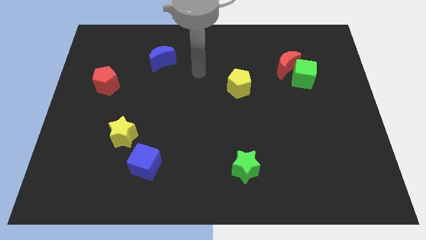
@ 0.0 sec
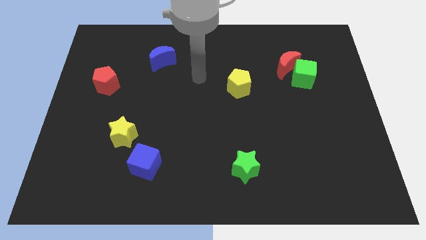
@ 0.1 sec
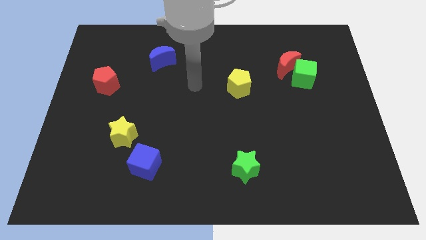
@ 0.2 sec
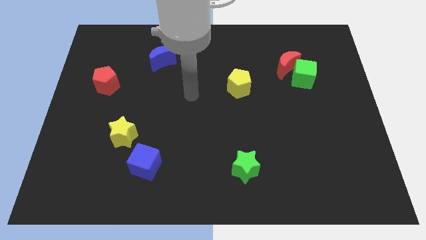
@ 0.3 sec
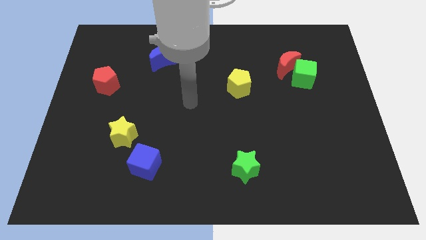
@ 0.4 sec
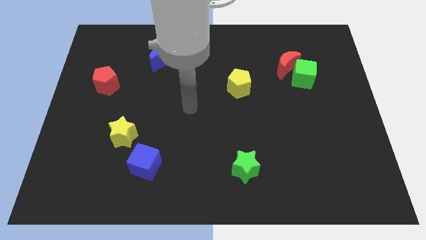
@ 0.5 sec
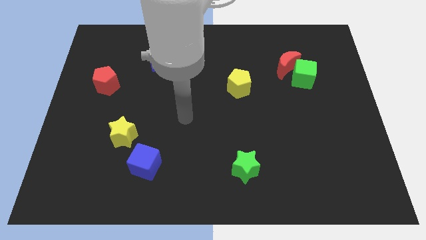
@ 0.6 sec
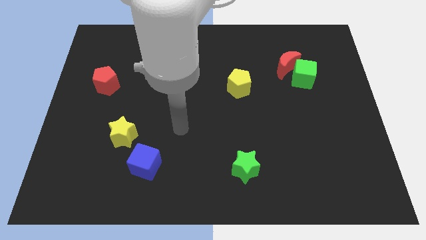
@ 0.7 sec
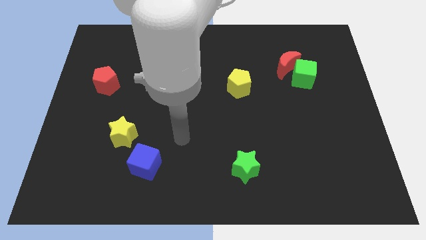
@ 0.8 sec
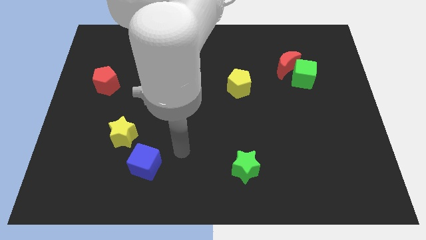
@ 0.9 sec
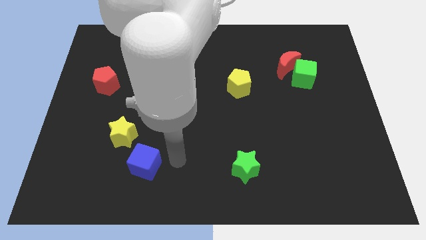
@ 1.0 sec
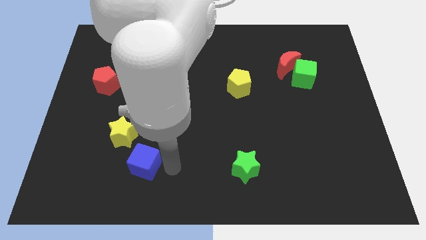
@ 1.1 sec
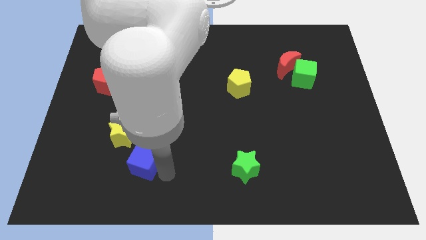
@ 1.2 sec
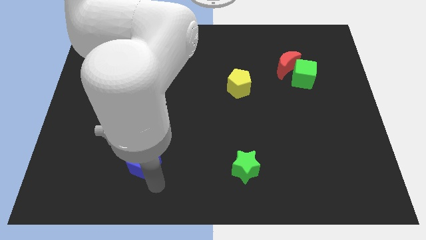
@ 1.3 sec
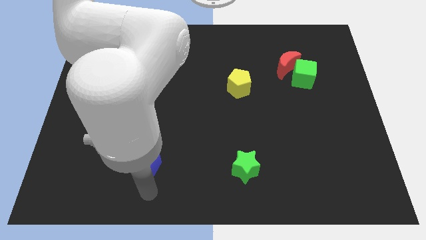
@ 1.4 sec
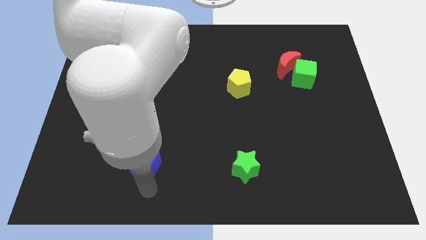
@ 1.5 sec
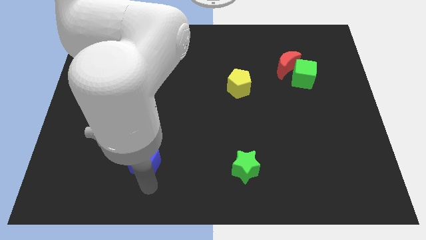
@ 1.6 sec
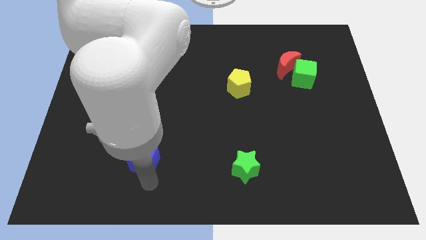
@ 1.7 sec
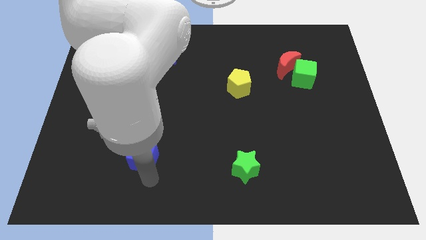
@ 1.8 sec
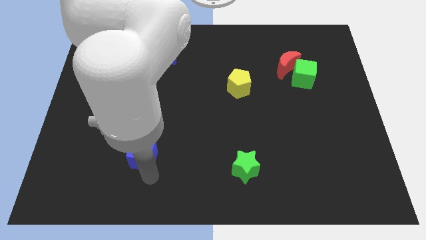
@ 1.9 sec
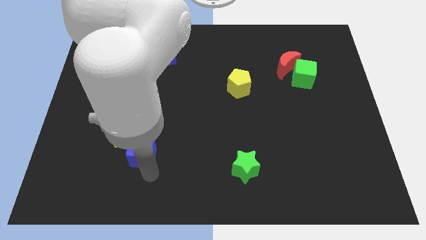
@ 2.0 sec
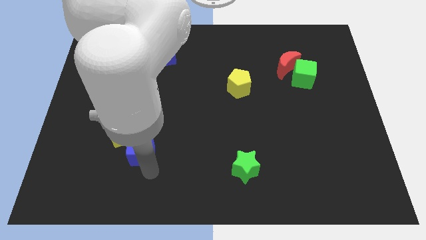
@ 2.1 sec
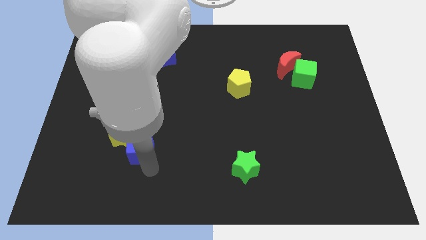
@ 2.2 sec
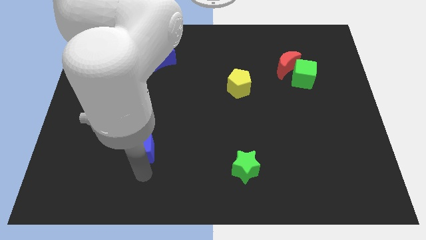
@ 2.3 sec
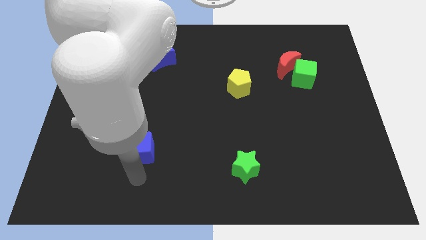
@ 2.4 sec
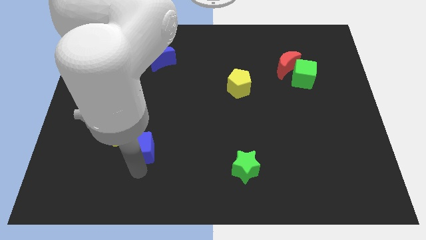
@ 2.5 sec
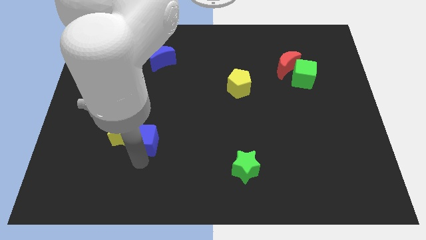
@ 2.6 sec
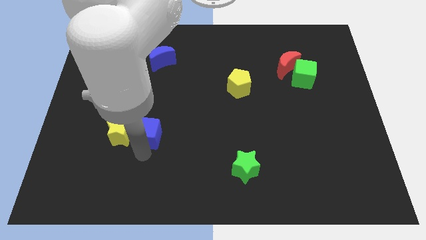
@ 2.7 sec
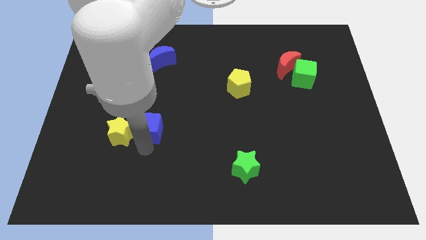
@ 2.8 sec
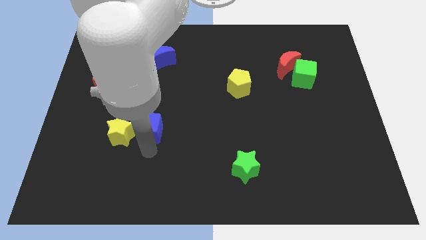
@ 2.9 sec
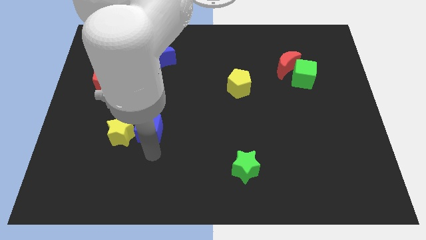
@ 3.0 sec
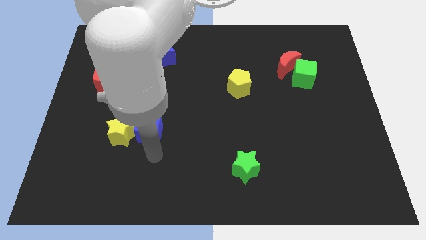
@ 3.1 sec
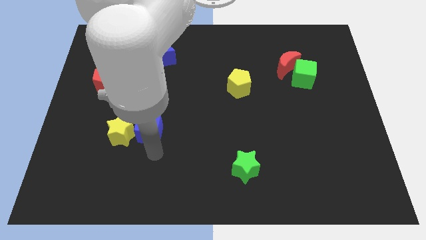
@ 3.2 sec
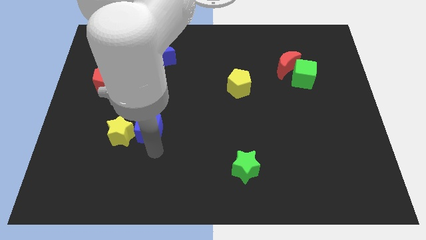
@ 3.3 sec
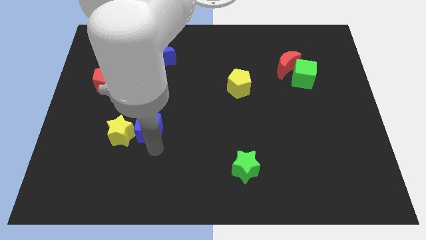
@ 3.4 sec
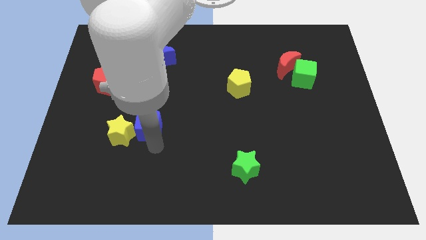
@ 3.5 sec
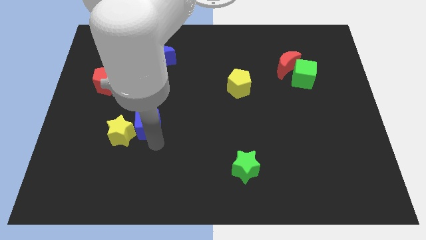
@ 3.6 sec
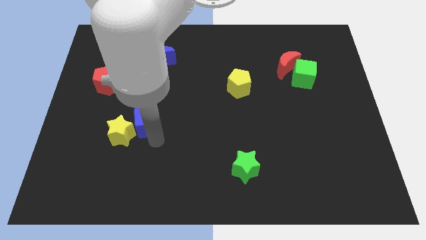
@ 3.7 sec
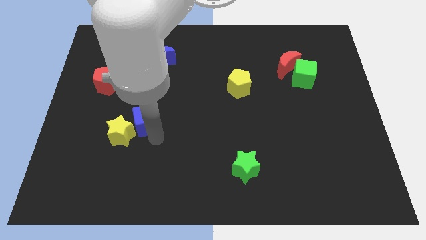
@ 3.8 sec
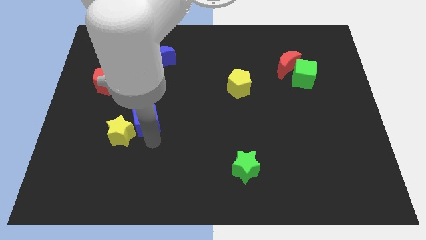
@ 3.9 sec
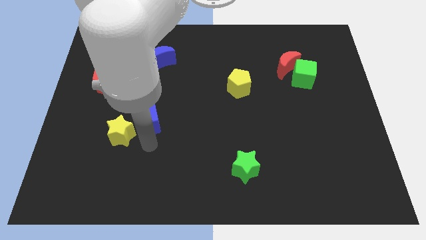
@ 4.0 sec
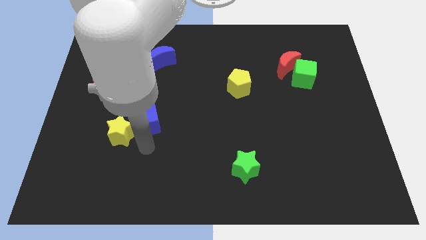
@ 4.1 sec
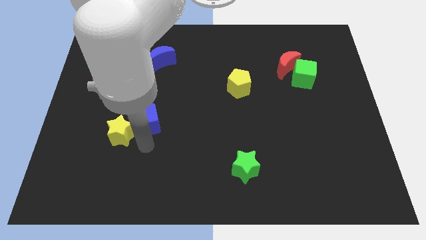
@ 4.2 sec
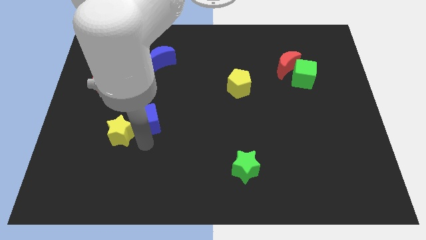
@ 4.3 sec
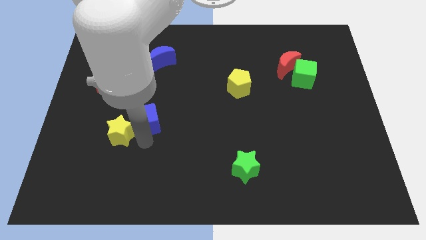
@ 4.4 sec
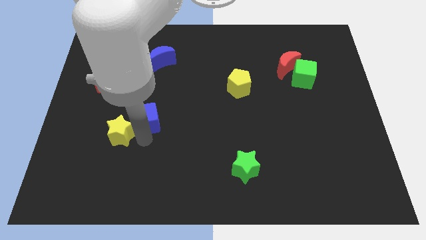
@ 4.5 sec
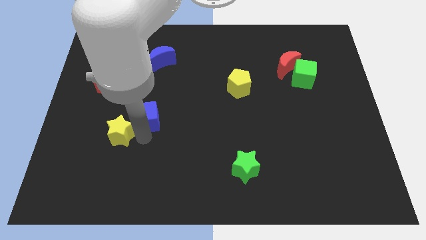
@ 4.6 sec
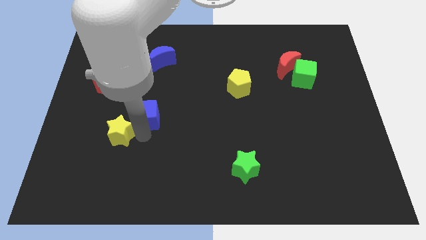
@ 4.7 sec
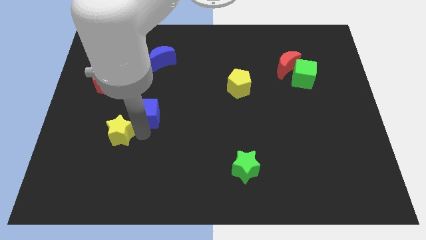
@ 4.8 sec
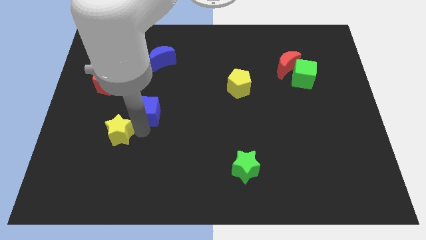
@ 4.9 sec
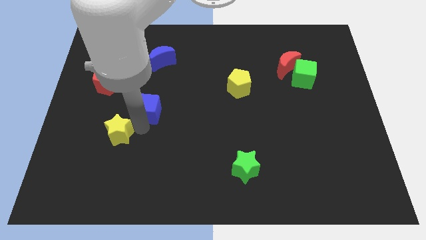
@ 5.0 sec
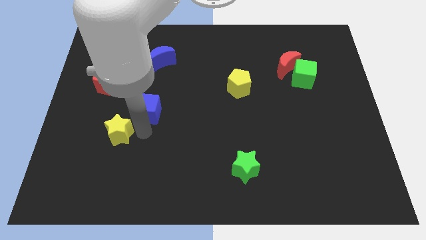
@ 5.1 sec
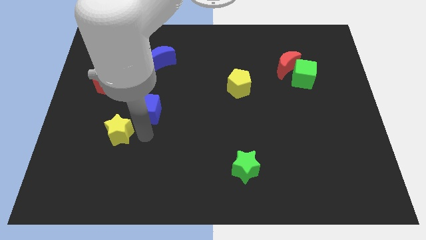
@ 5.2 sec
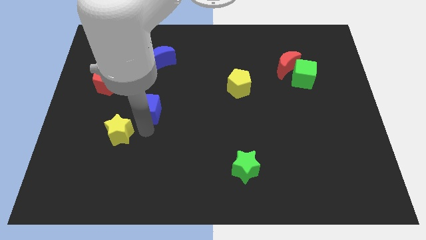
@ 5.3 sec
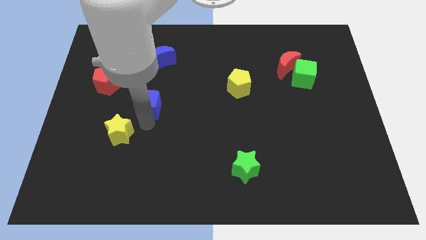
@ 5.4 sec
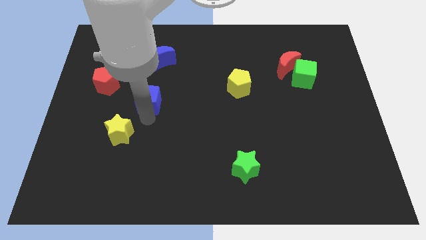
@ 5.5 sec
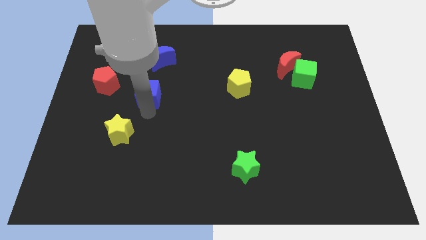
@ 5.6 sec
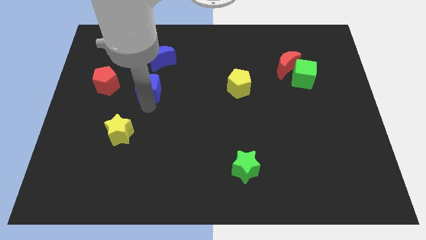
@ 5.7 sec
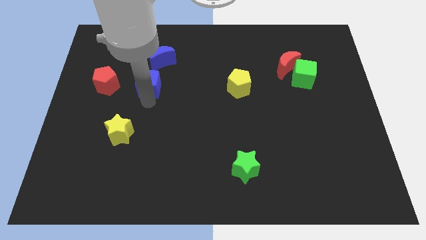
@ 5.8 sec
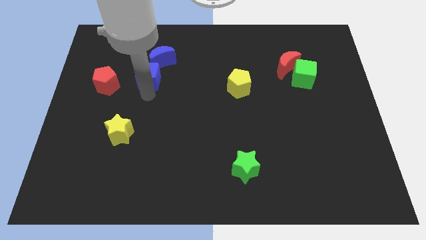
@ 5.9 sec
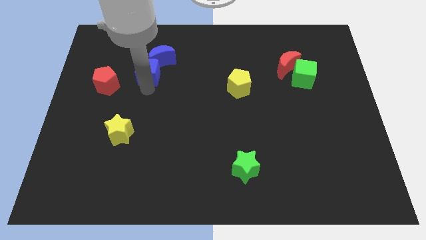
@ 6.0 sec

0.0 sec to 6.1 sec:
move the blue cube to the blue moon

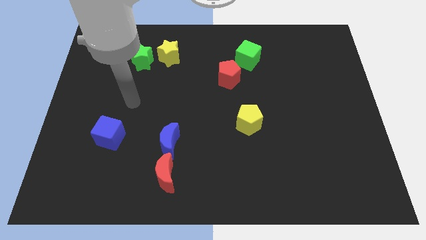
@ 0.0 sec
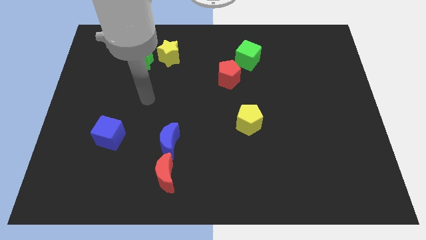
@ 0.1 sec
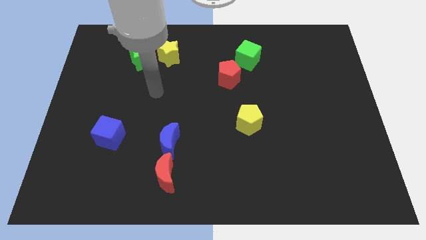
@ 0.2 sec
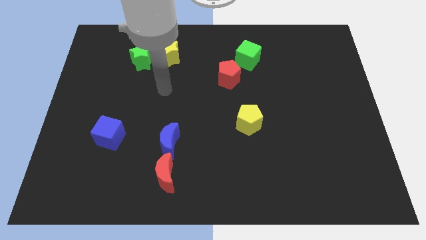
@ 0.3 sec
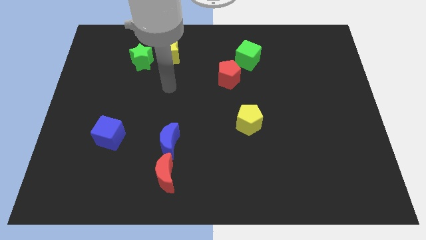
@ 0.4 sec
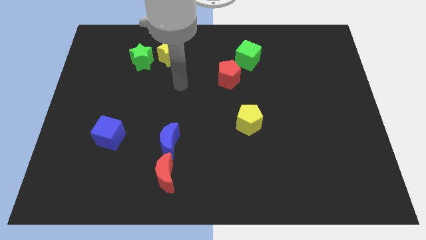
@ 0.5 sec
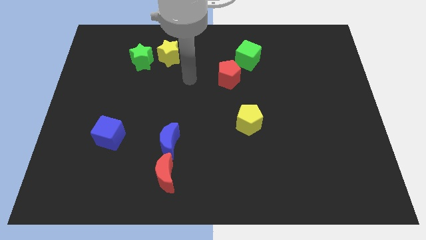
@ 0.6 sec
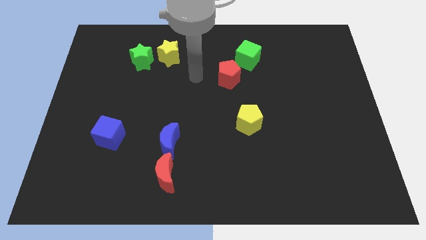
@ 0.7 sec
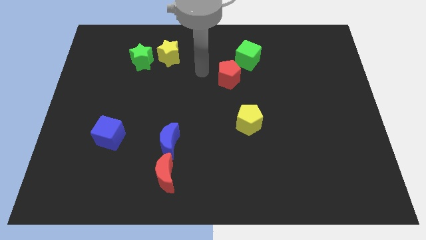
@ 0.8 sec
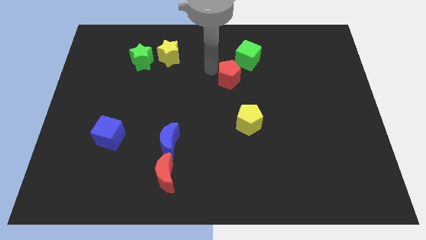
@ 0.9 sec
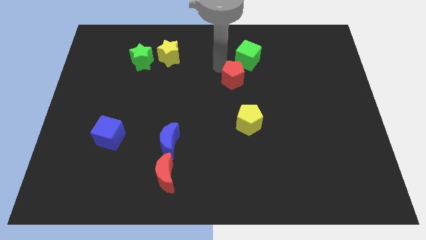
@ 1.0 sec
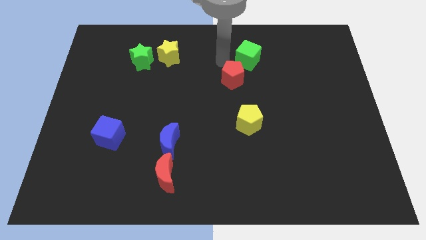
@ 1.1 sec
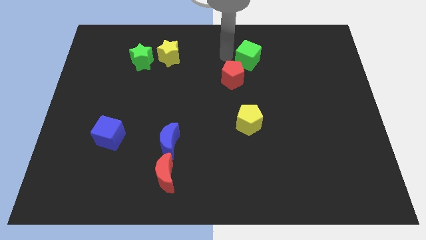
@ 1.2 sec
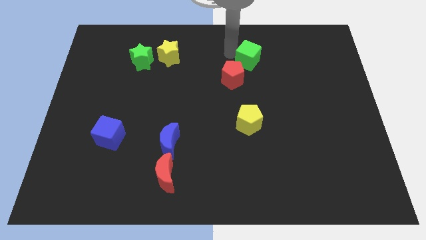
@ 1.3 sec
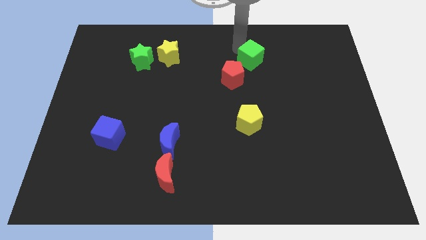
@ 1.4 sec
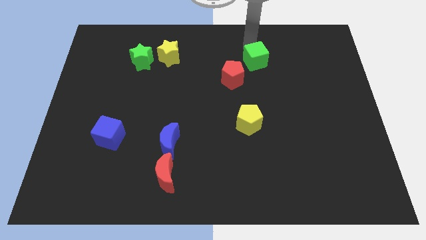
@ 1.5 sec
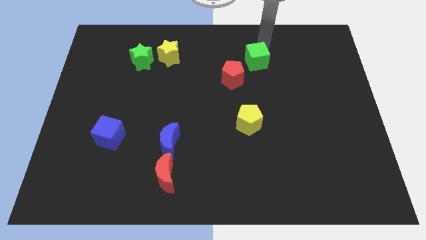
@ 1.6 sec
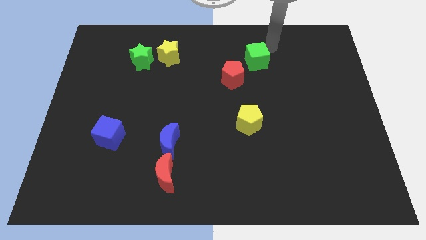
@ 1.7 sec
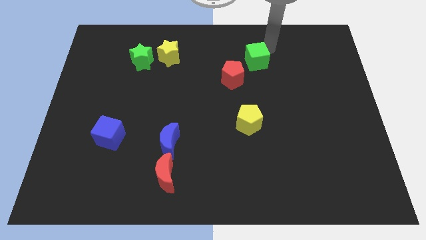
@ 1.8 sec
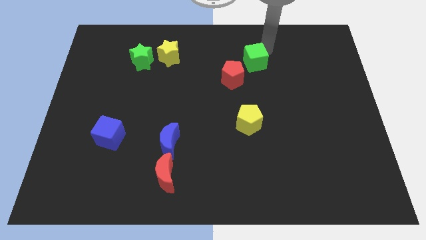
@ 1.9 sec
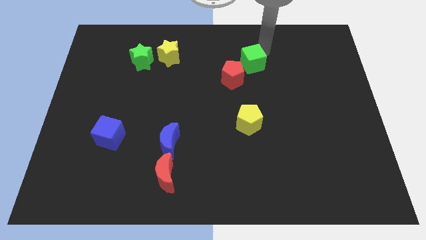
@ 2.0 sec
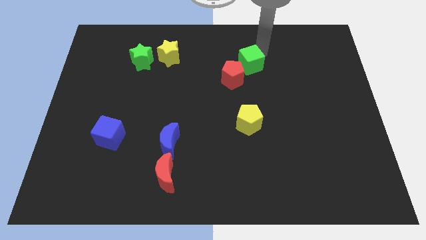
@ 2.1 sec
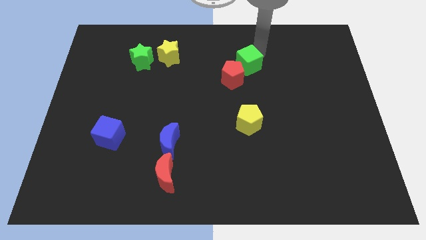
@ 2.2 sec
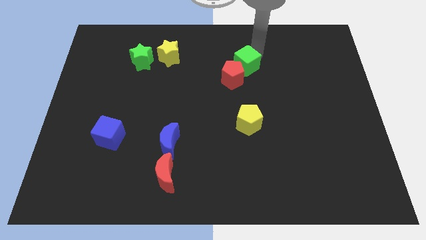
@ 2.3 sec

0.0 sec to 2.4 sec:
push the green cube to the red pentagon
